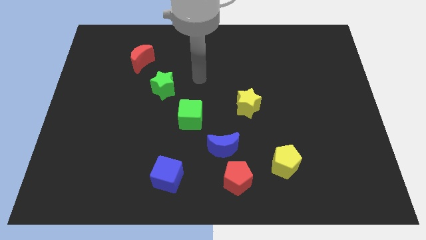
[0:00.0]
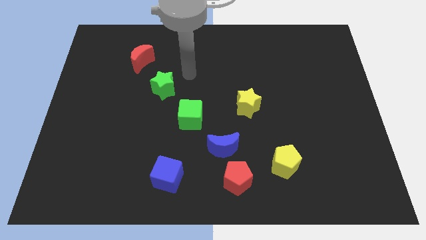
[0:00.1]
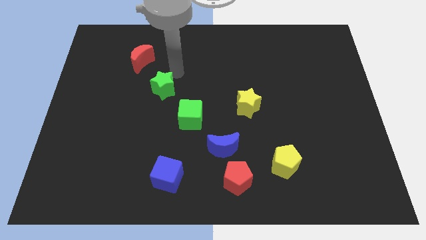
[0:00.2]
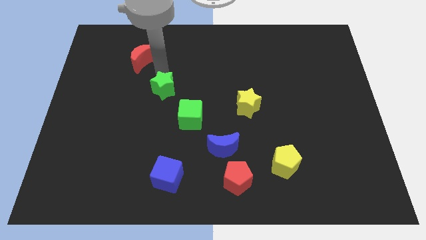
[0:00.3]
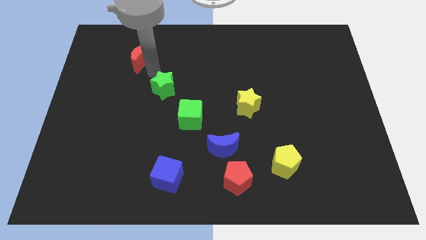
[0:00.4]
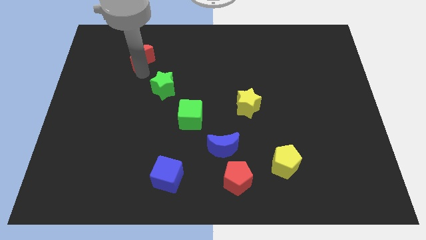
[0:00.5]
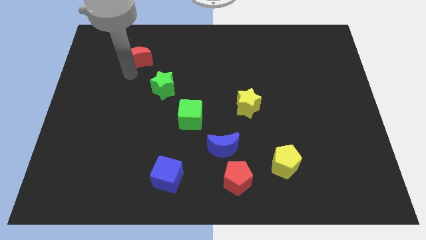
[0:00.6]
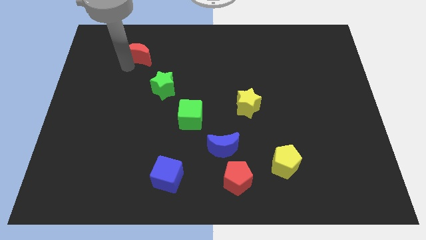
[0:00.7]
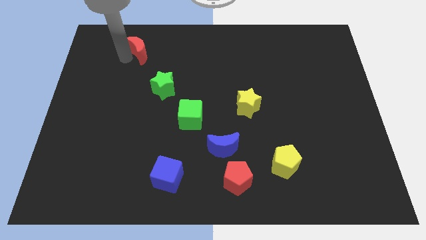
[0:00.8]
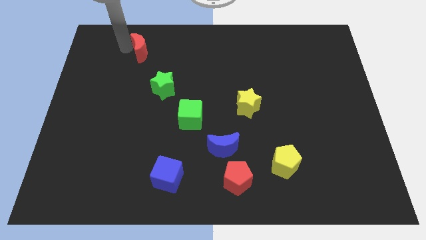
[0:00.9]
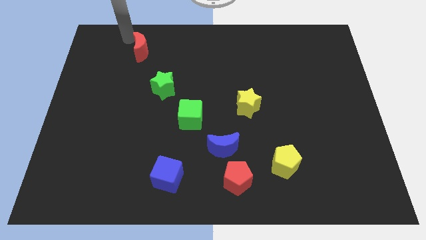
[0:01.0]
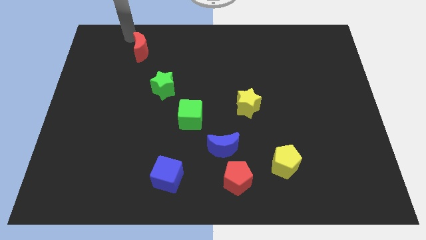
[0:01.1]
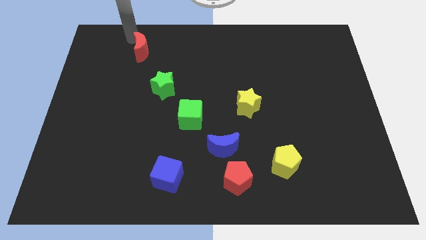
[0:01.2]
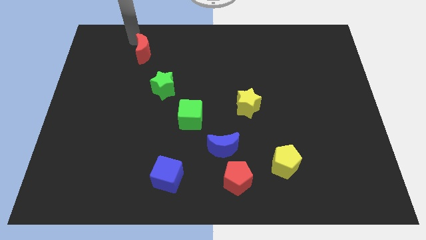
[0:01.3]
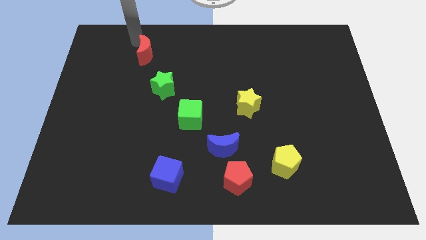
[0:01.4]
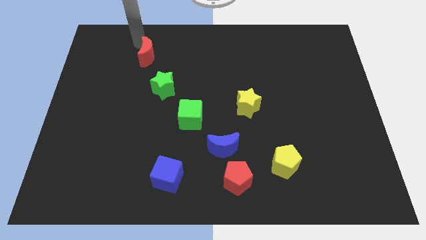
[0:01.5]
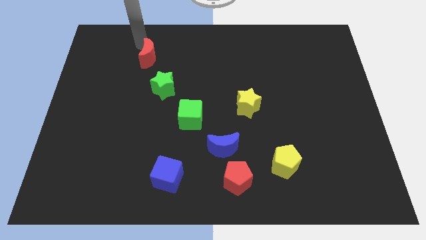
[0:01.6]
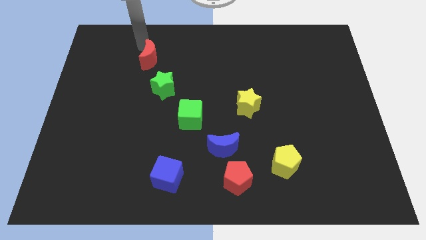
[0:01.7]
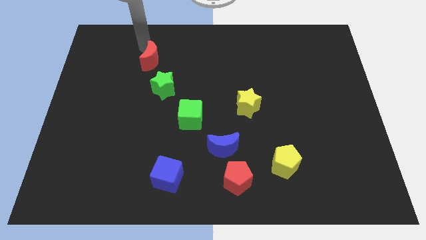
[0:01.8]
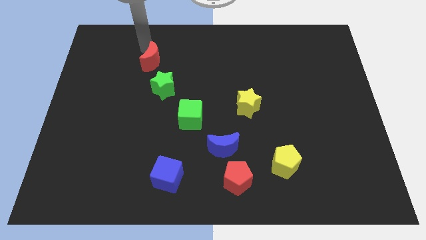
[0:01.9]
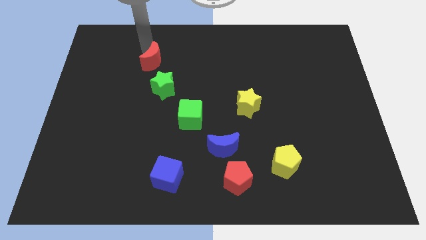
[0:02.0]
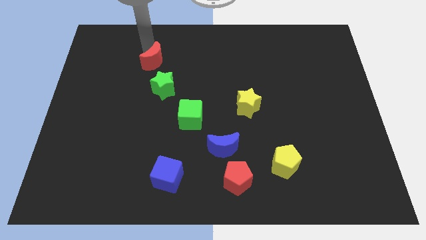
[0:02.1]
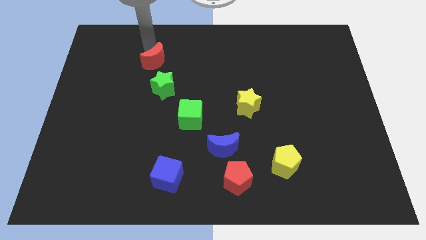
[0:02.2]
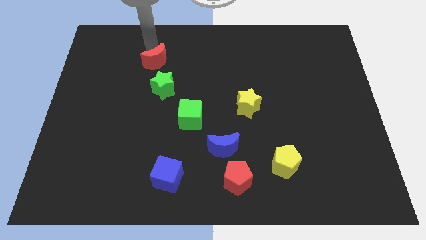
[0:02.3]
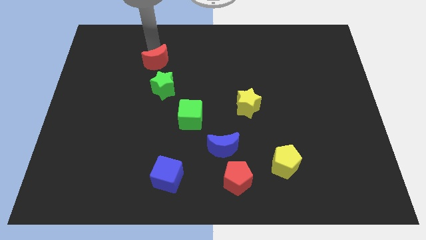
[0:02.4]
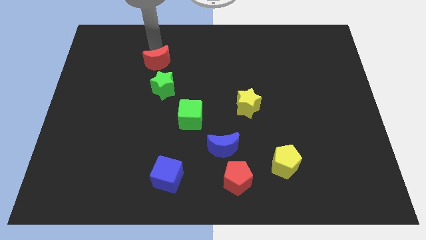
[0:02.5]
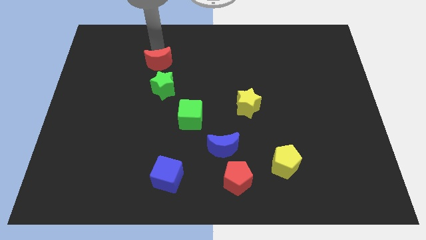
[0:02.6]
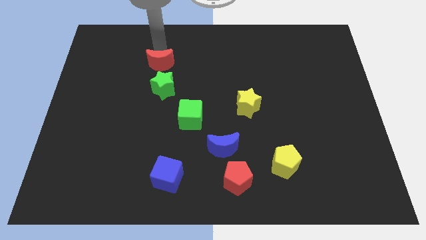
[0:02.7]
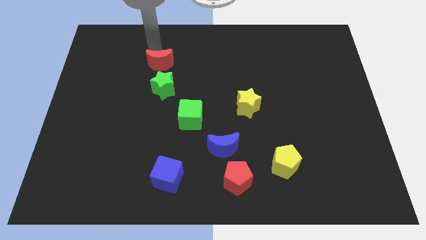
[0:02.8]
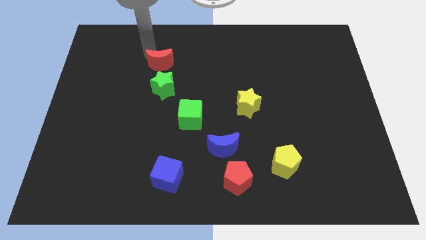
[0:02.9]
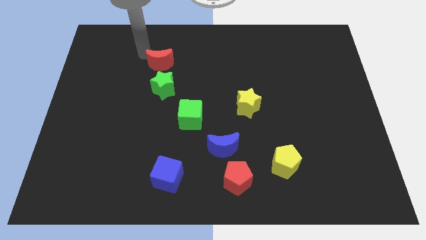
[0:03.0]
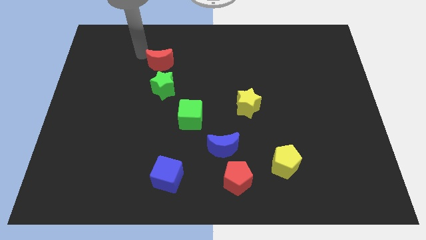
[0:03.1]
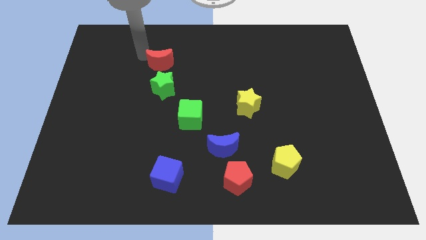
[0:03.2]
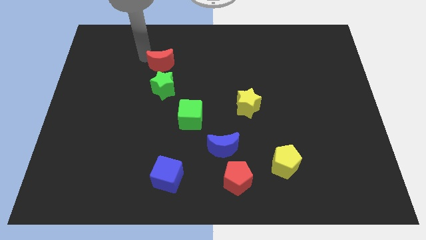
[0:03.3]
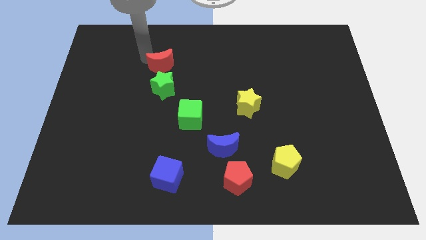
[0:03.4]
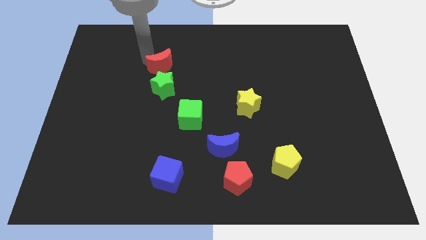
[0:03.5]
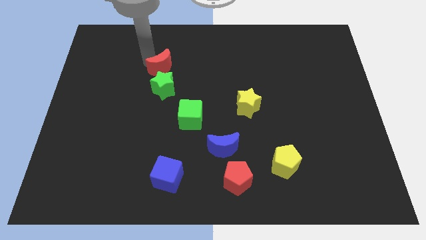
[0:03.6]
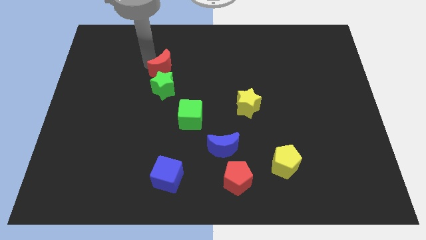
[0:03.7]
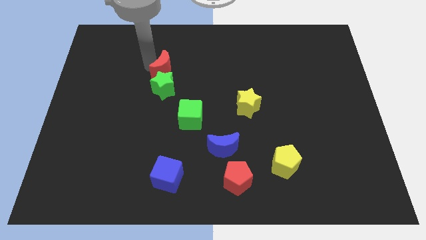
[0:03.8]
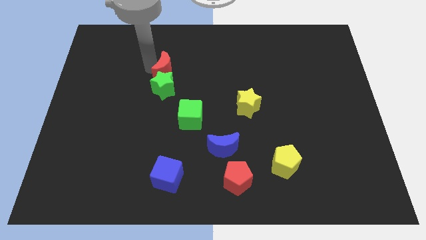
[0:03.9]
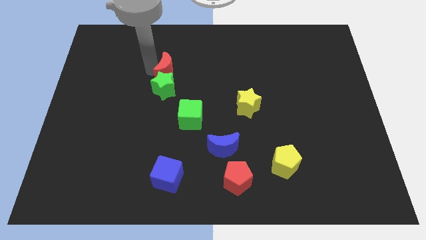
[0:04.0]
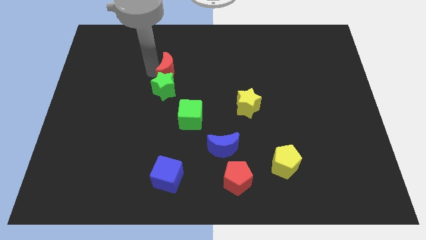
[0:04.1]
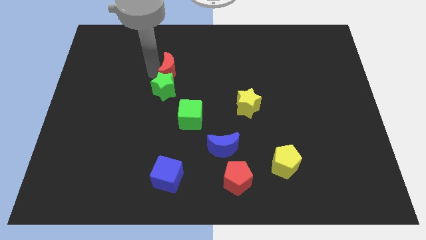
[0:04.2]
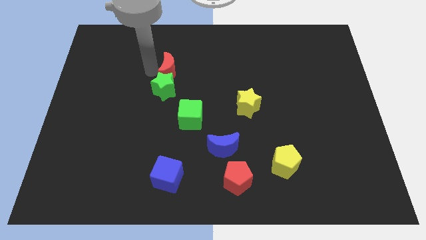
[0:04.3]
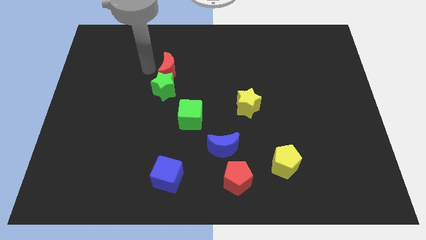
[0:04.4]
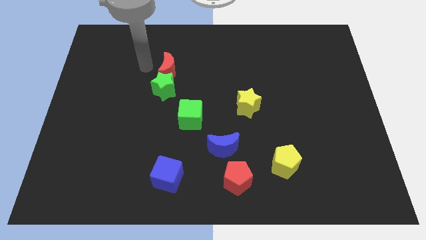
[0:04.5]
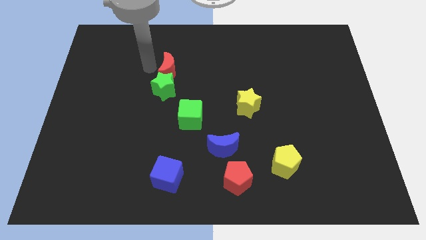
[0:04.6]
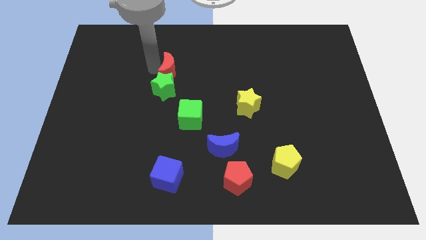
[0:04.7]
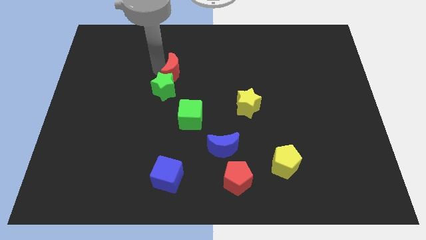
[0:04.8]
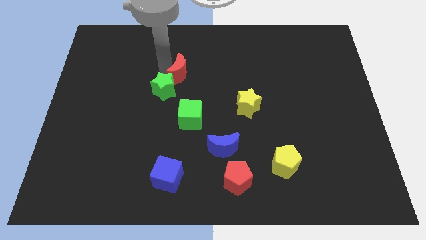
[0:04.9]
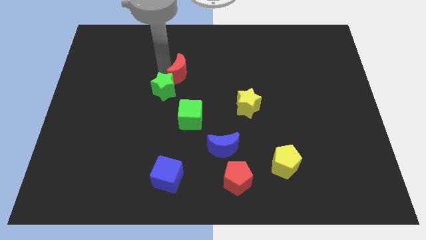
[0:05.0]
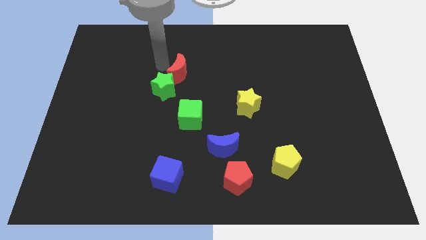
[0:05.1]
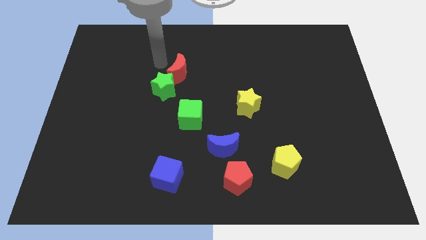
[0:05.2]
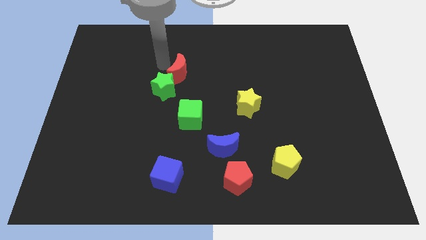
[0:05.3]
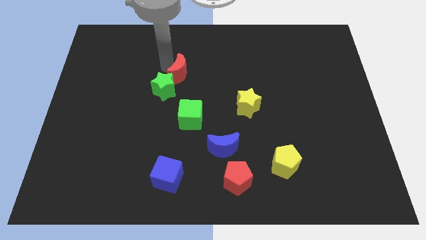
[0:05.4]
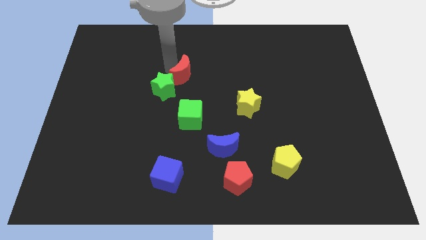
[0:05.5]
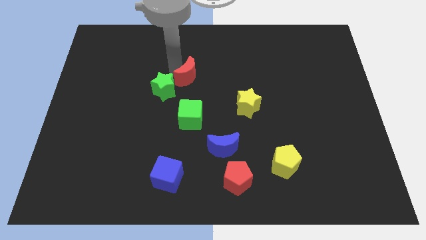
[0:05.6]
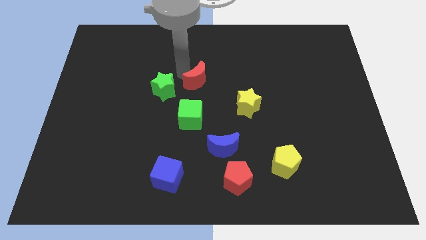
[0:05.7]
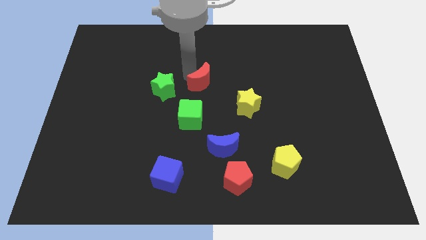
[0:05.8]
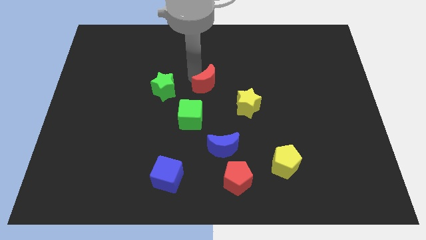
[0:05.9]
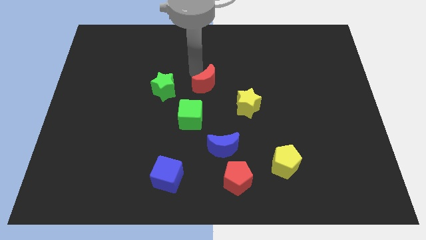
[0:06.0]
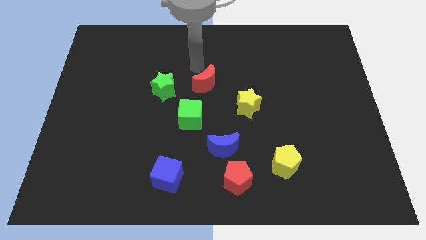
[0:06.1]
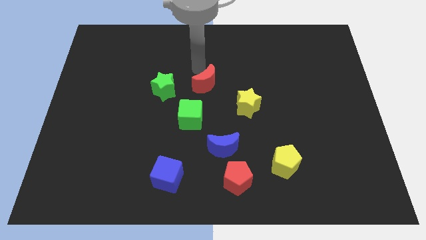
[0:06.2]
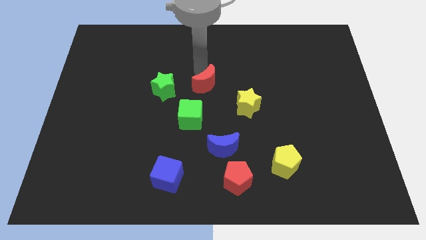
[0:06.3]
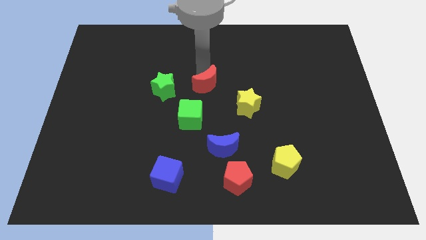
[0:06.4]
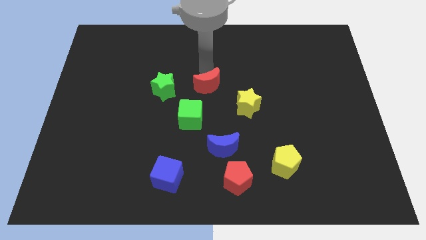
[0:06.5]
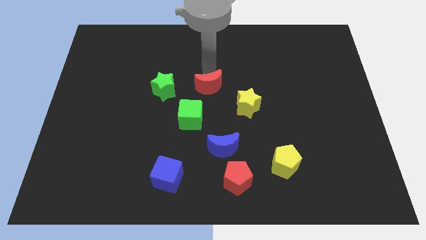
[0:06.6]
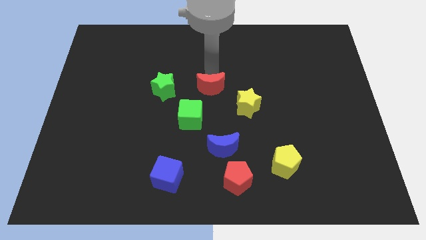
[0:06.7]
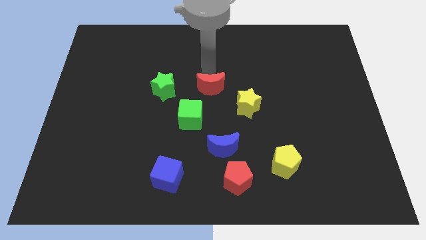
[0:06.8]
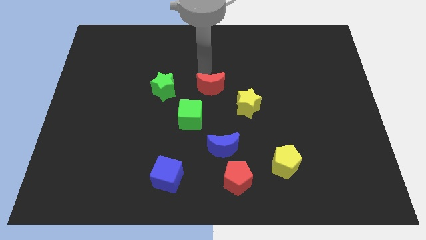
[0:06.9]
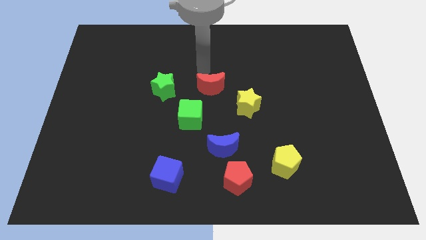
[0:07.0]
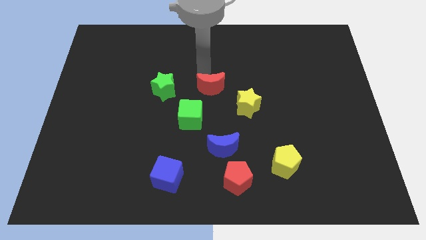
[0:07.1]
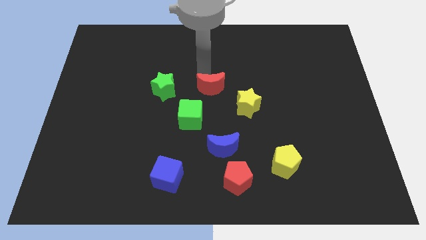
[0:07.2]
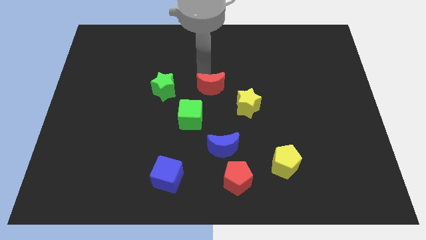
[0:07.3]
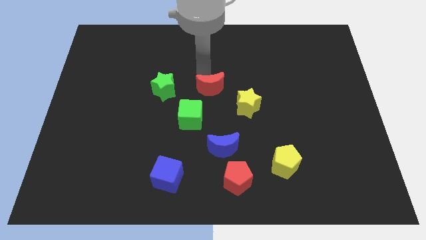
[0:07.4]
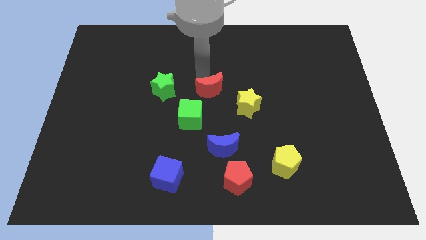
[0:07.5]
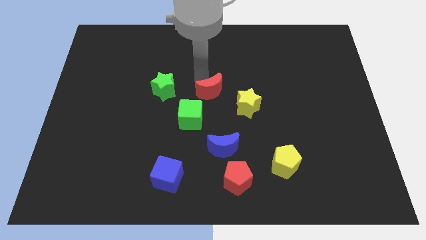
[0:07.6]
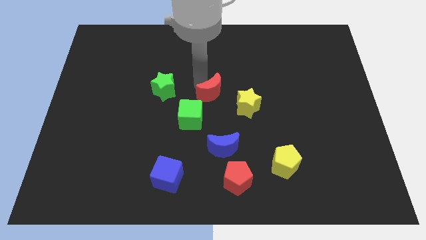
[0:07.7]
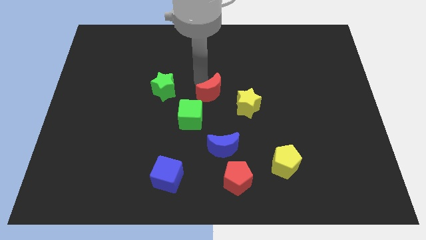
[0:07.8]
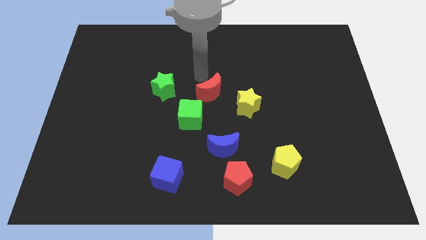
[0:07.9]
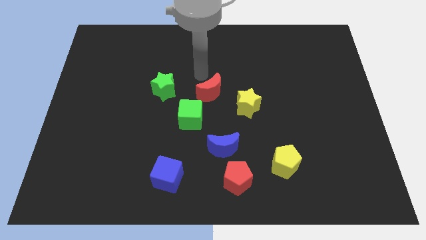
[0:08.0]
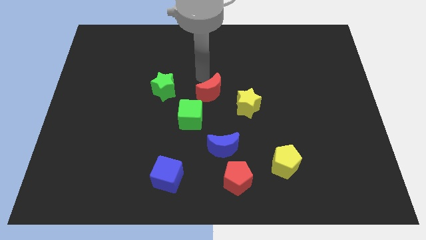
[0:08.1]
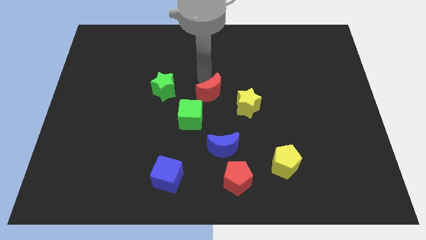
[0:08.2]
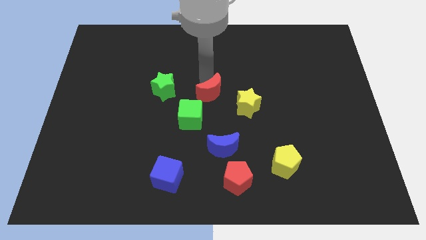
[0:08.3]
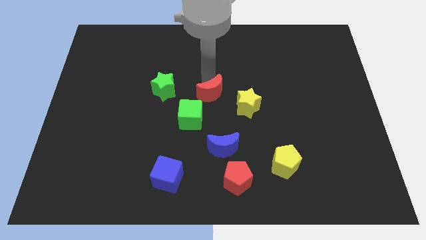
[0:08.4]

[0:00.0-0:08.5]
slide the red moon downwards and then right
